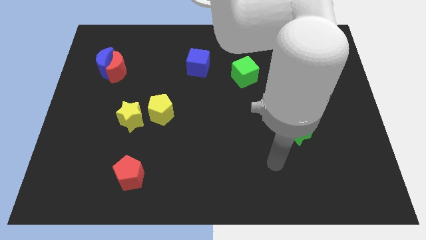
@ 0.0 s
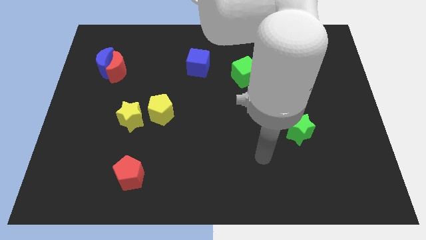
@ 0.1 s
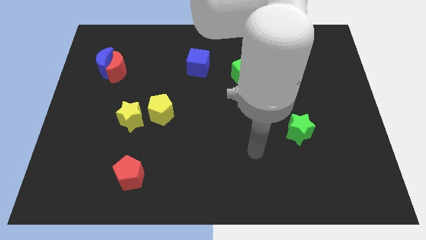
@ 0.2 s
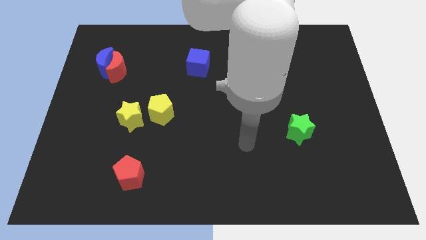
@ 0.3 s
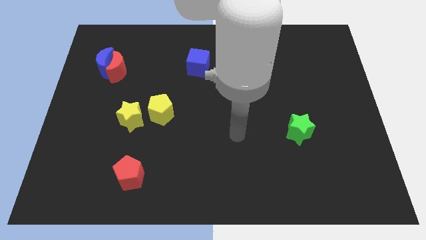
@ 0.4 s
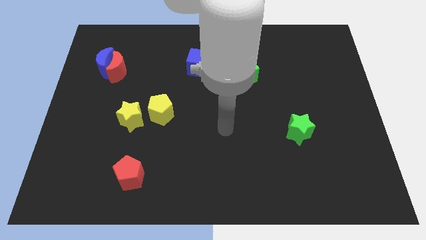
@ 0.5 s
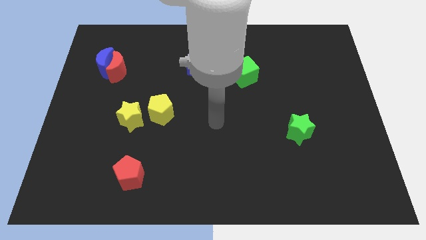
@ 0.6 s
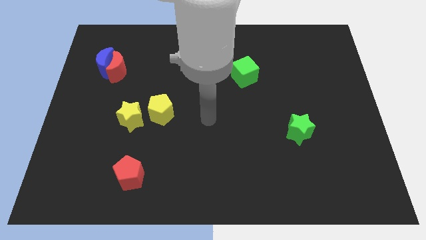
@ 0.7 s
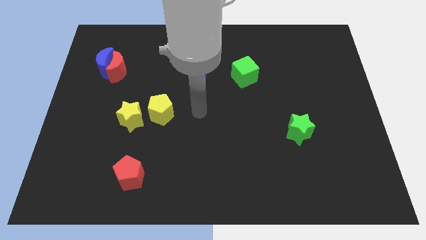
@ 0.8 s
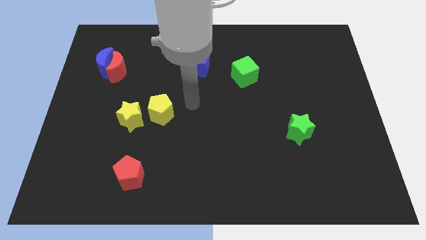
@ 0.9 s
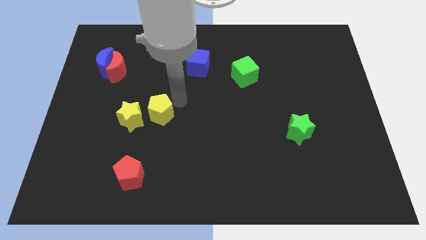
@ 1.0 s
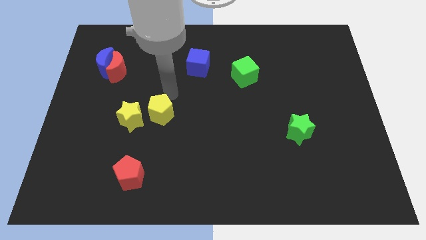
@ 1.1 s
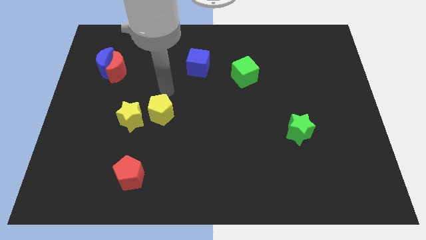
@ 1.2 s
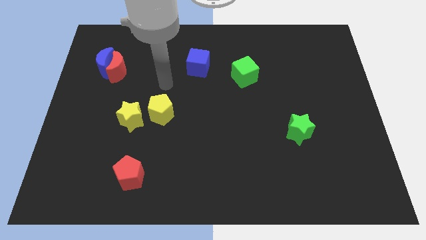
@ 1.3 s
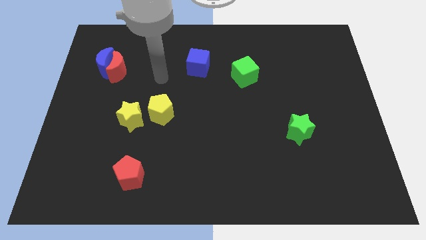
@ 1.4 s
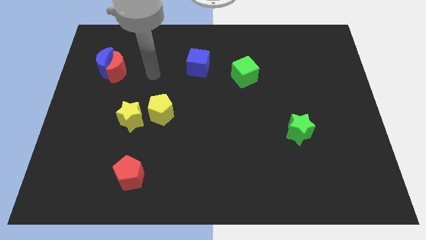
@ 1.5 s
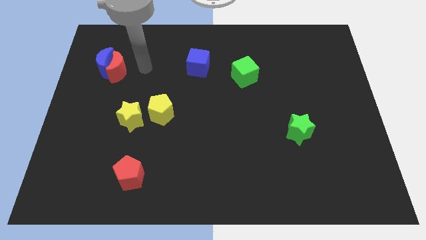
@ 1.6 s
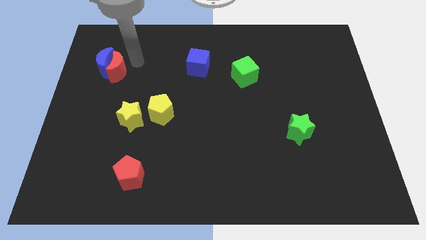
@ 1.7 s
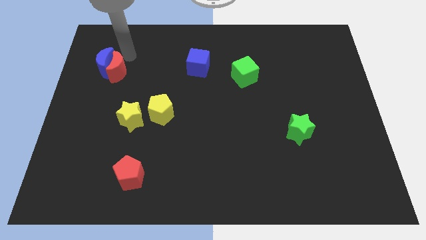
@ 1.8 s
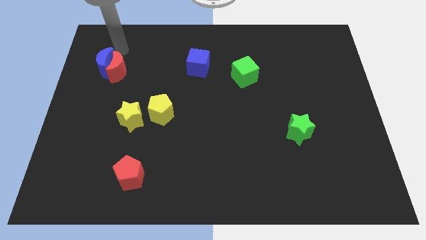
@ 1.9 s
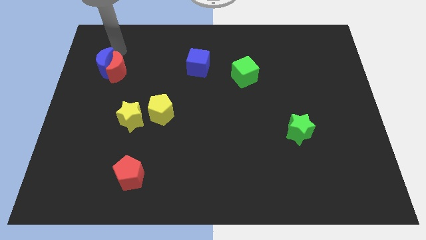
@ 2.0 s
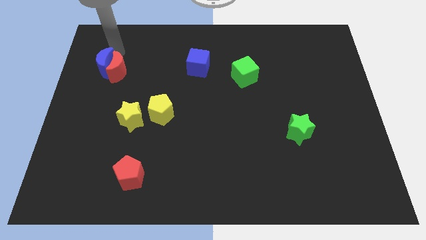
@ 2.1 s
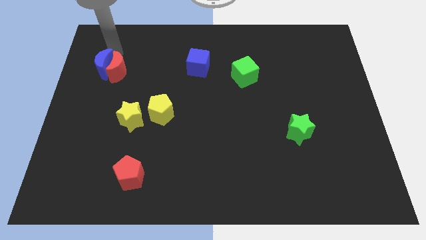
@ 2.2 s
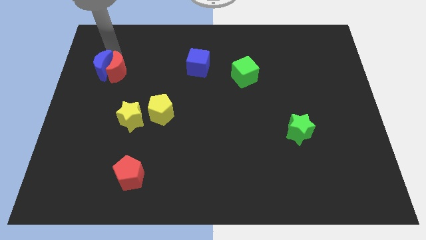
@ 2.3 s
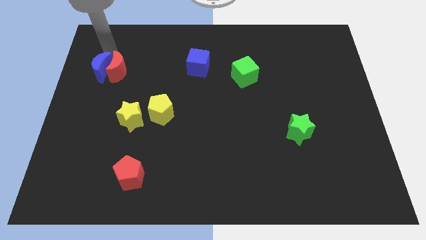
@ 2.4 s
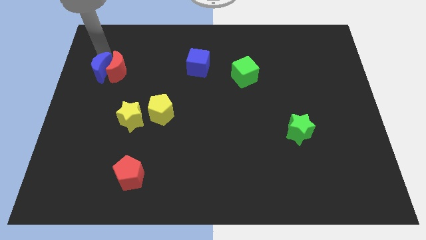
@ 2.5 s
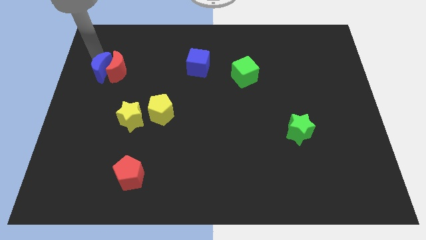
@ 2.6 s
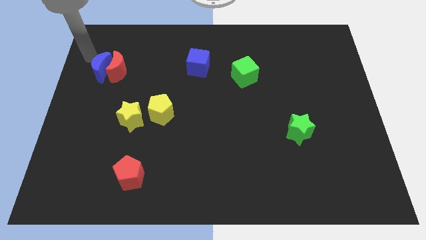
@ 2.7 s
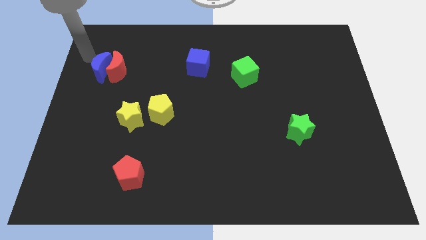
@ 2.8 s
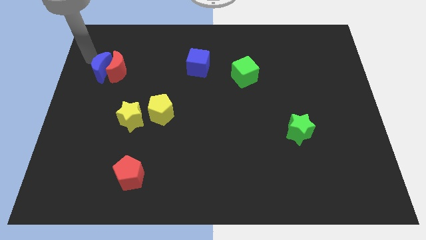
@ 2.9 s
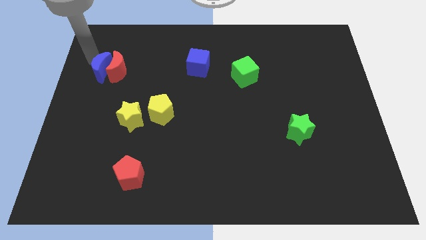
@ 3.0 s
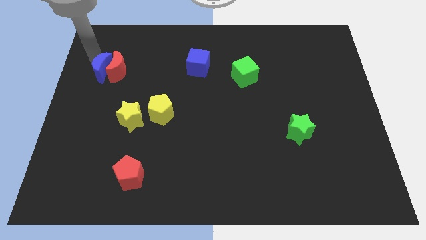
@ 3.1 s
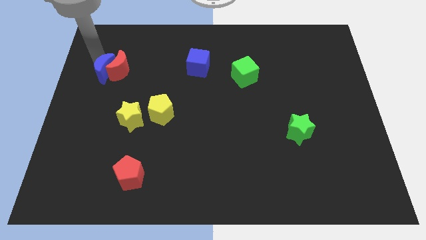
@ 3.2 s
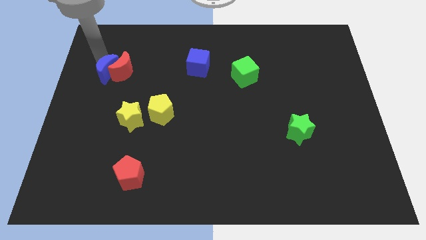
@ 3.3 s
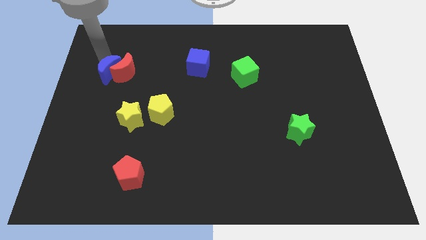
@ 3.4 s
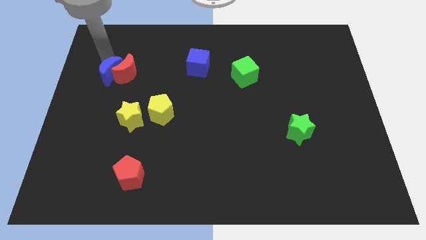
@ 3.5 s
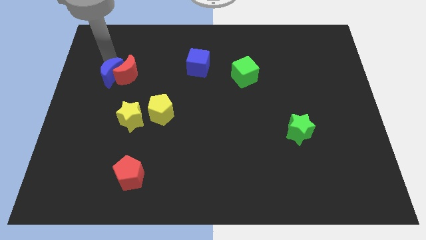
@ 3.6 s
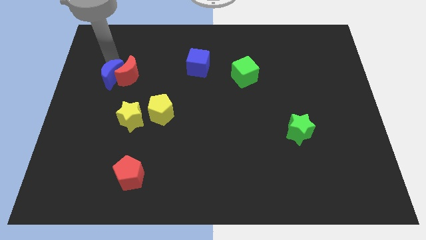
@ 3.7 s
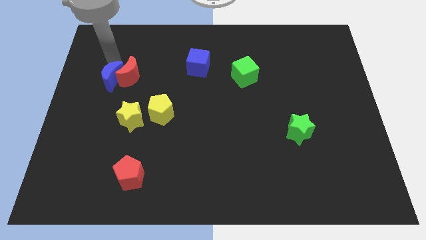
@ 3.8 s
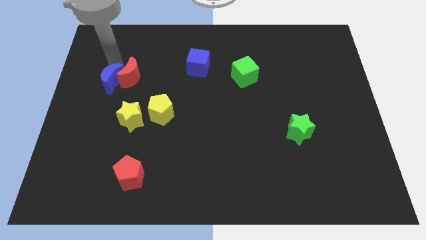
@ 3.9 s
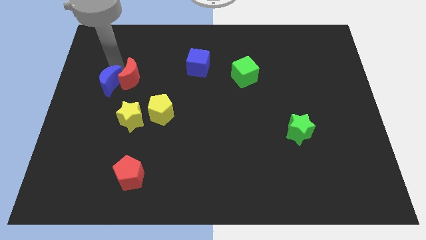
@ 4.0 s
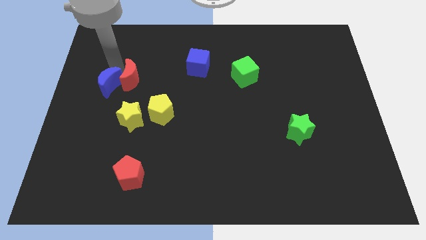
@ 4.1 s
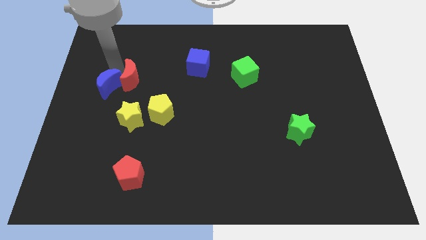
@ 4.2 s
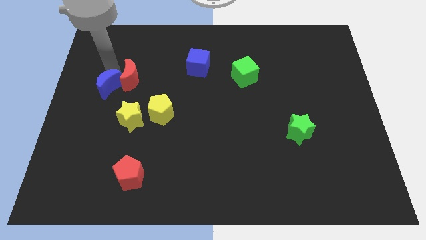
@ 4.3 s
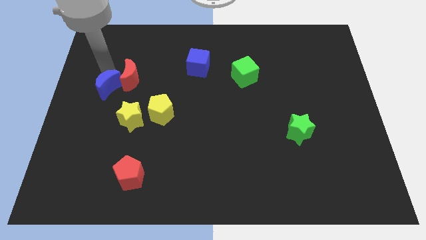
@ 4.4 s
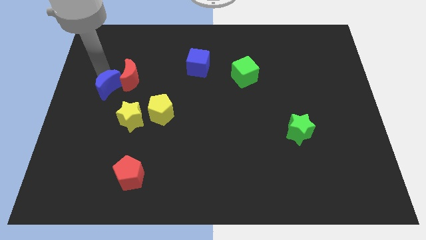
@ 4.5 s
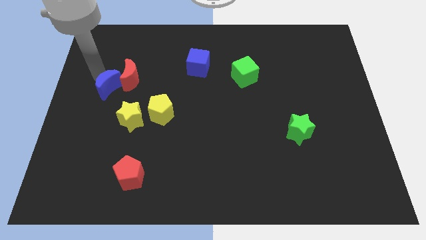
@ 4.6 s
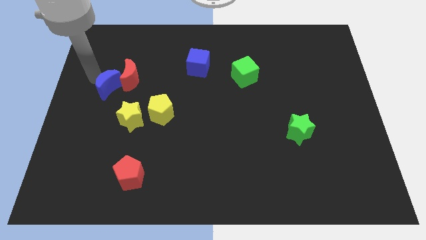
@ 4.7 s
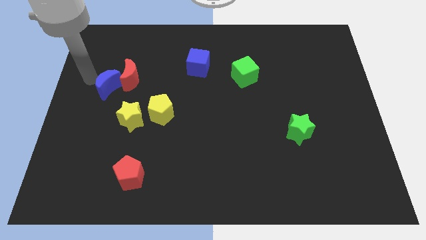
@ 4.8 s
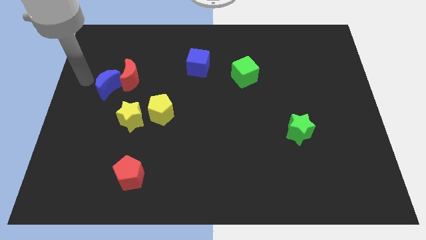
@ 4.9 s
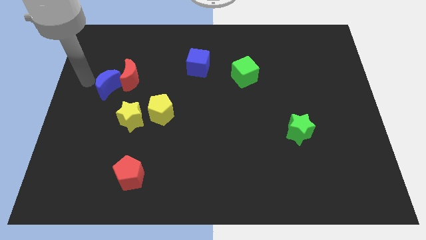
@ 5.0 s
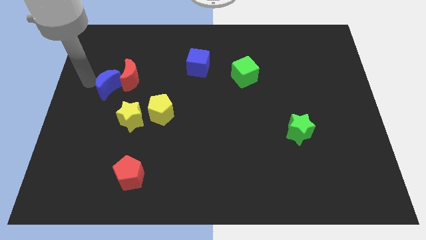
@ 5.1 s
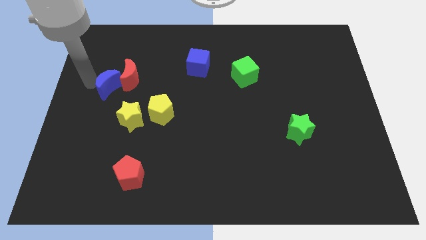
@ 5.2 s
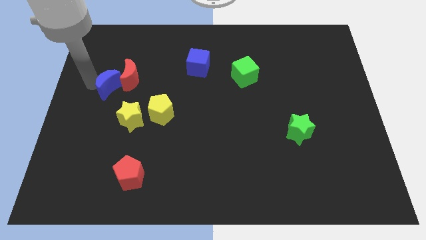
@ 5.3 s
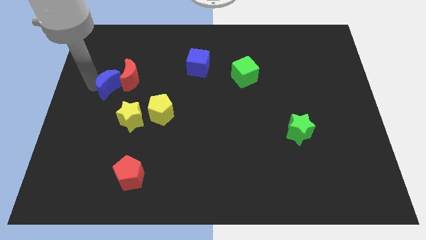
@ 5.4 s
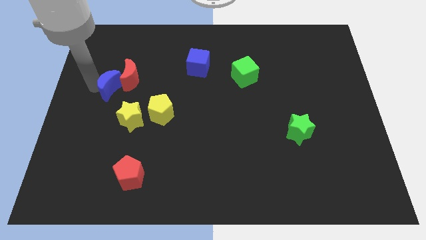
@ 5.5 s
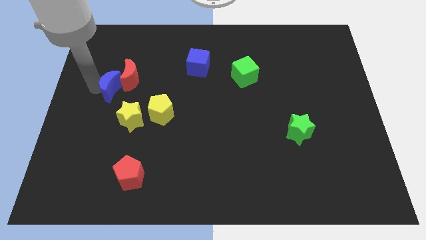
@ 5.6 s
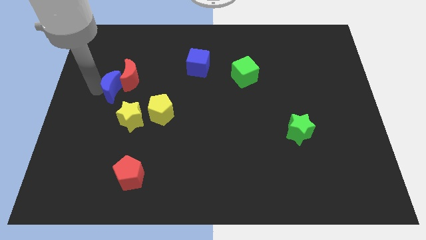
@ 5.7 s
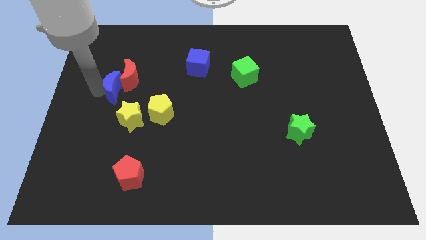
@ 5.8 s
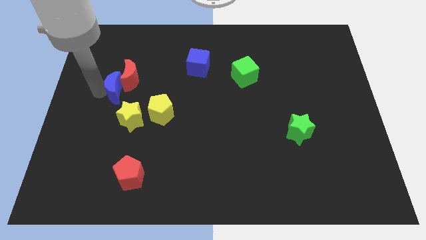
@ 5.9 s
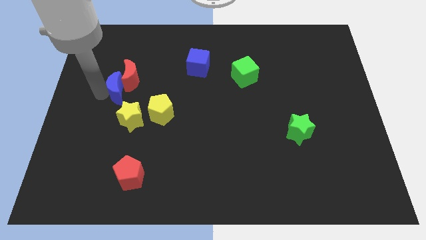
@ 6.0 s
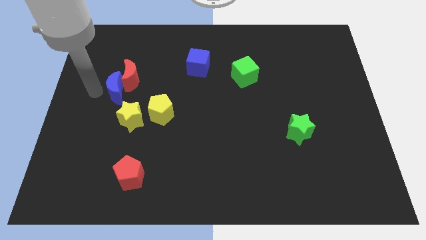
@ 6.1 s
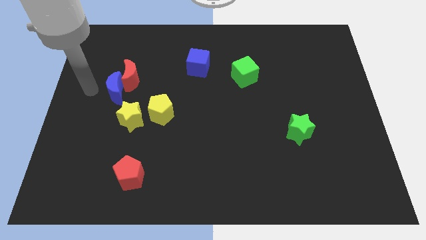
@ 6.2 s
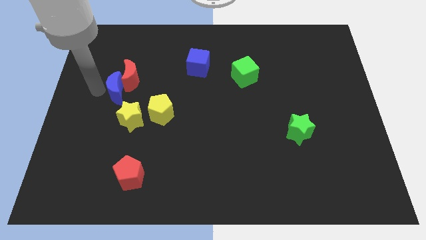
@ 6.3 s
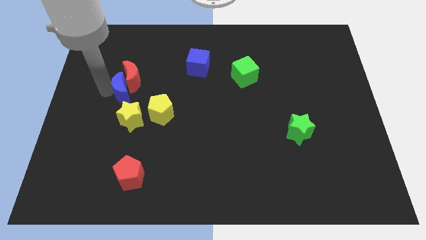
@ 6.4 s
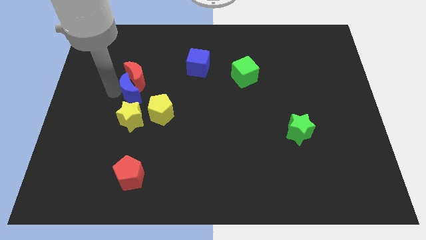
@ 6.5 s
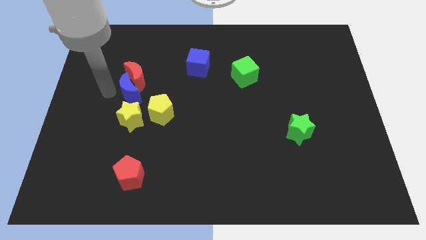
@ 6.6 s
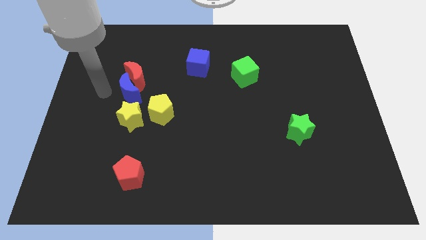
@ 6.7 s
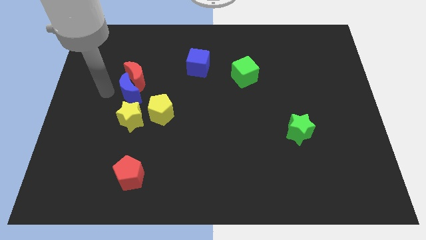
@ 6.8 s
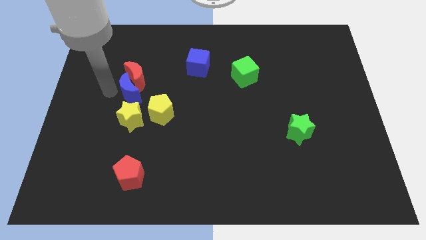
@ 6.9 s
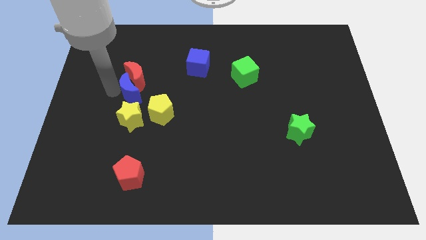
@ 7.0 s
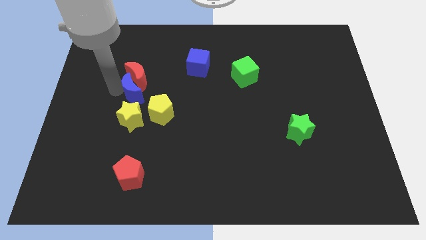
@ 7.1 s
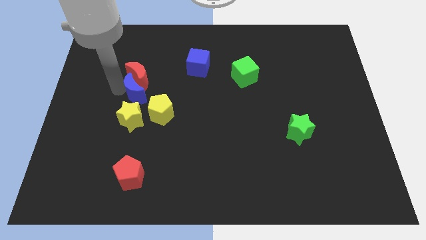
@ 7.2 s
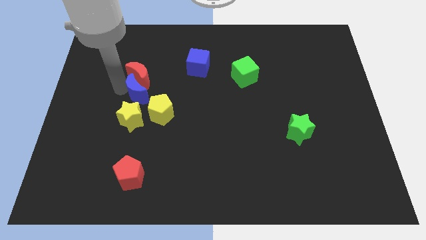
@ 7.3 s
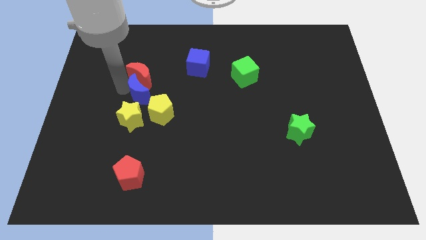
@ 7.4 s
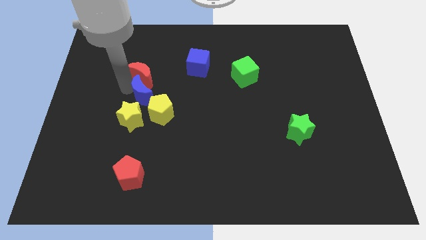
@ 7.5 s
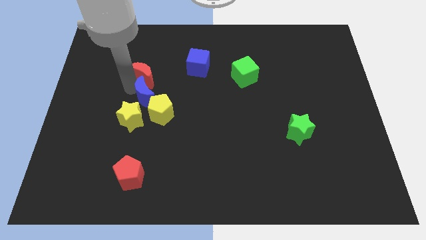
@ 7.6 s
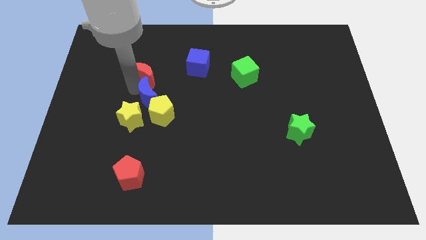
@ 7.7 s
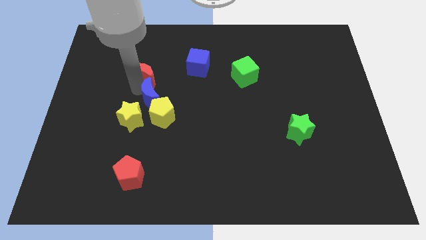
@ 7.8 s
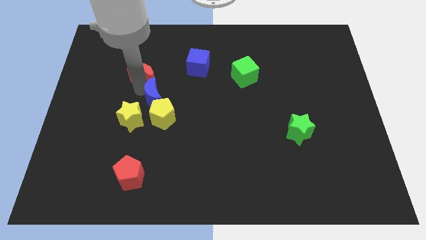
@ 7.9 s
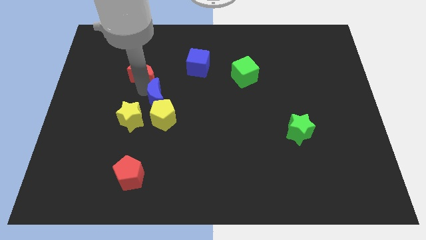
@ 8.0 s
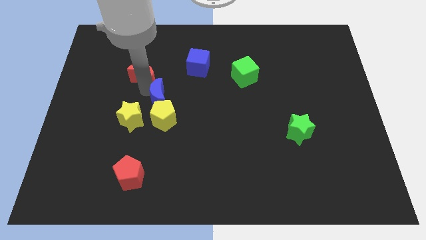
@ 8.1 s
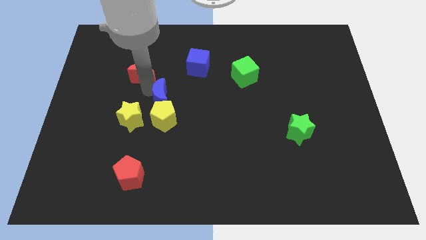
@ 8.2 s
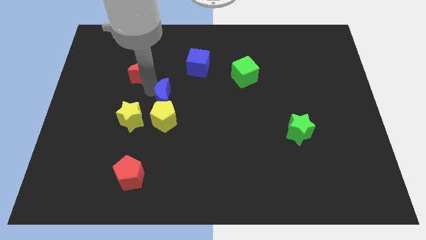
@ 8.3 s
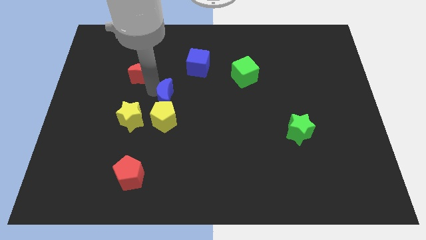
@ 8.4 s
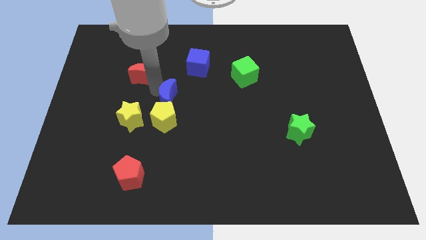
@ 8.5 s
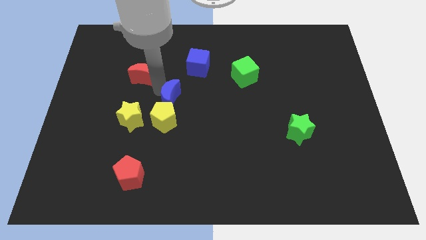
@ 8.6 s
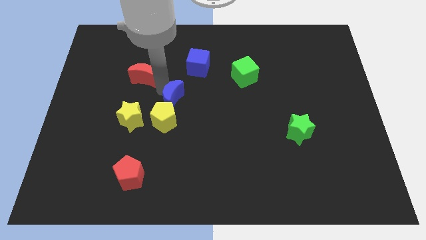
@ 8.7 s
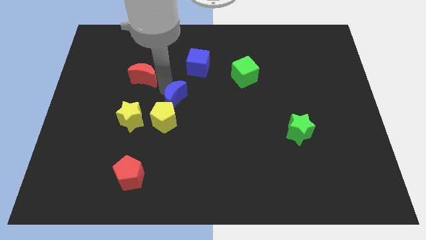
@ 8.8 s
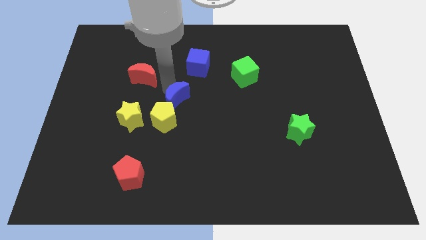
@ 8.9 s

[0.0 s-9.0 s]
push the blue moon down and right
